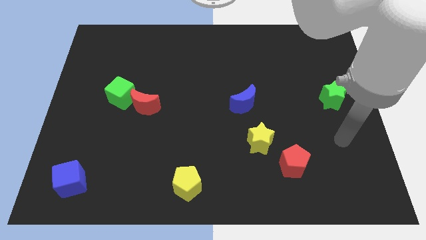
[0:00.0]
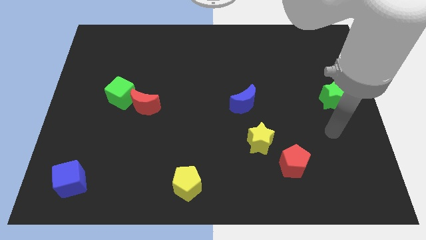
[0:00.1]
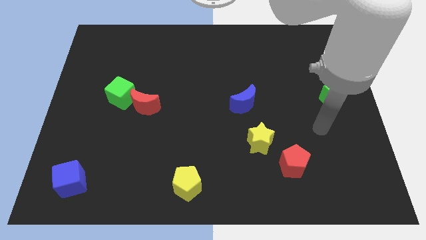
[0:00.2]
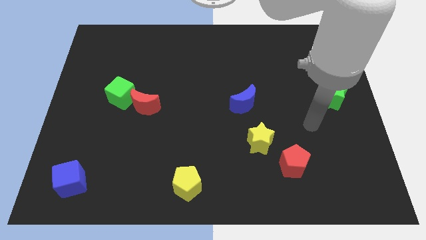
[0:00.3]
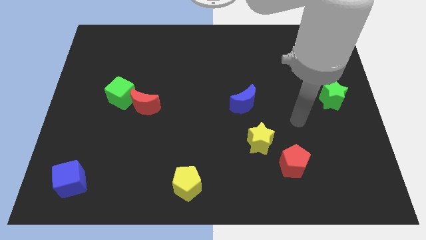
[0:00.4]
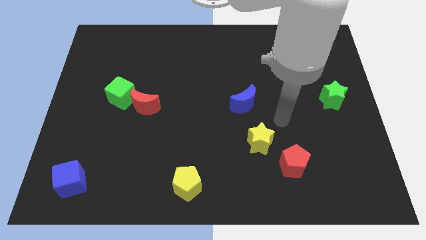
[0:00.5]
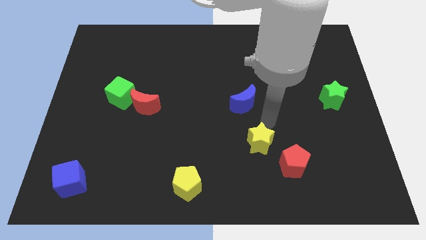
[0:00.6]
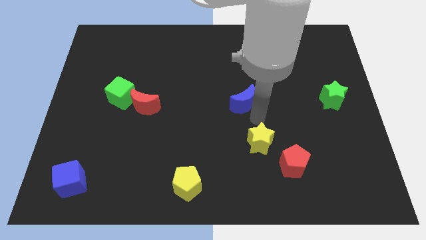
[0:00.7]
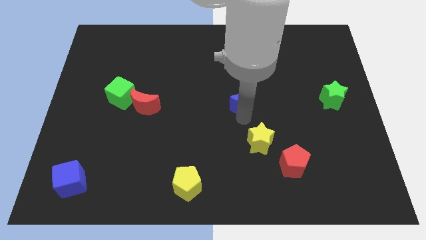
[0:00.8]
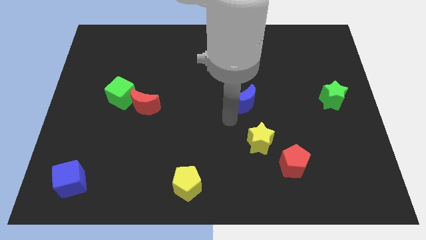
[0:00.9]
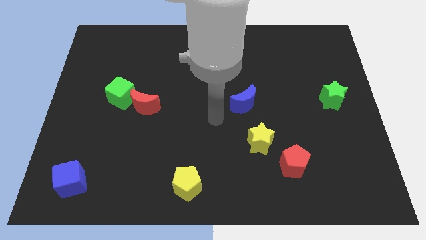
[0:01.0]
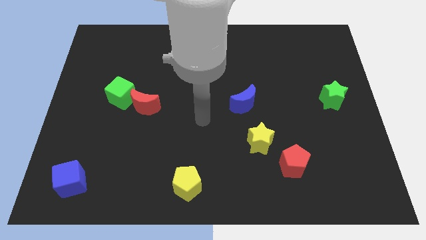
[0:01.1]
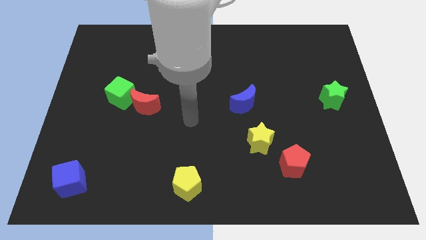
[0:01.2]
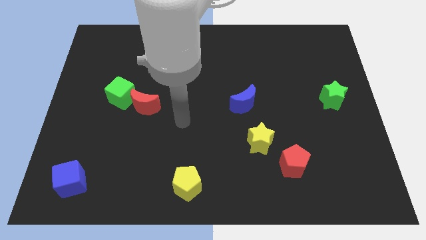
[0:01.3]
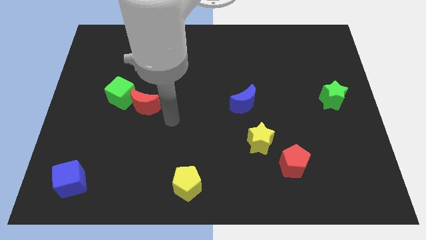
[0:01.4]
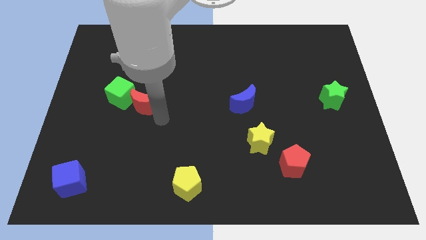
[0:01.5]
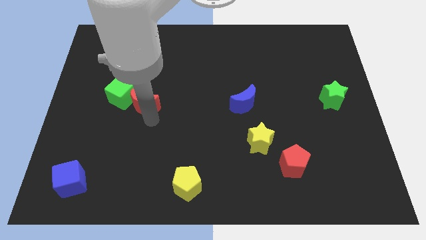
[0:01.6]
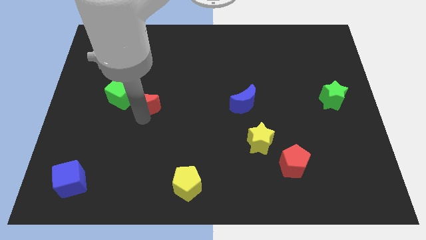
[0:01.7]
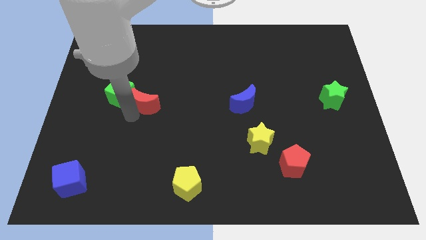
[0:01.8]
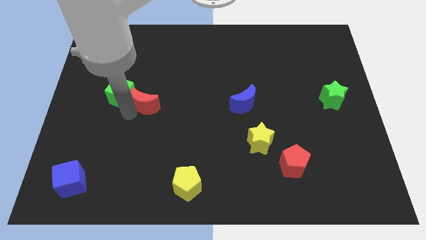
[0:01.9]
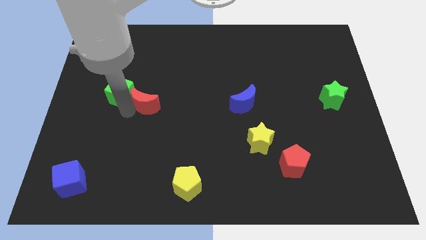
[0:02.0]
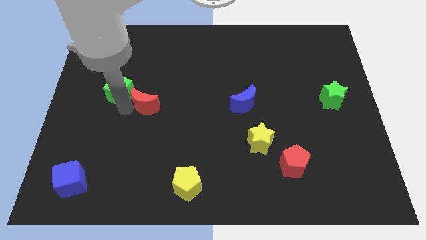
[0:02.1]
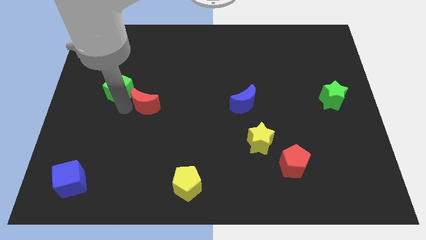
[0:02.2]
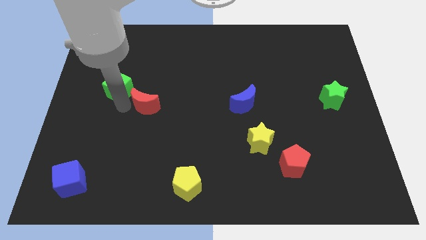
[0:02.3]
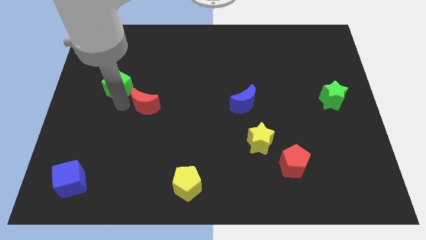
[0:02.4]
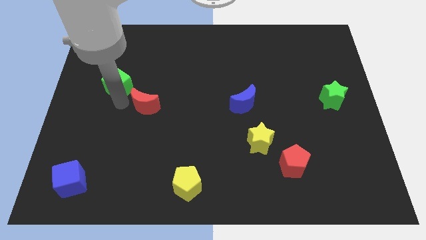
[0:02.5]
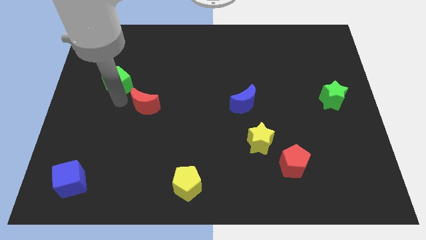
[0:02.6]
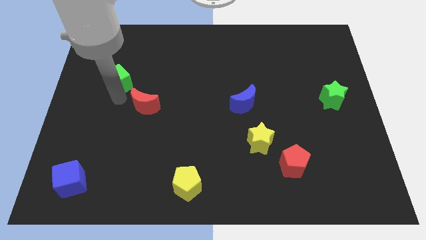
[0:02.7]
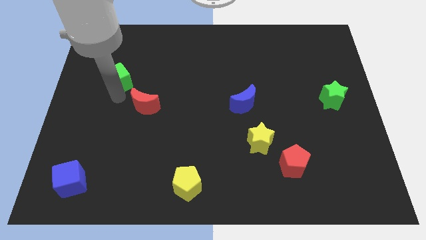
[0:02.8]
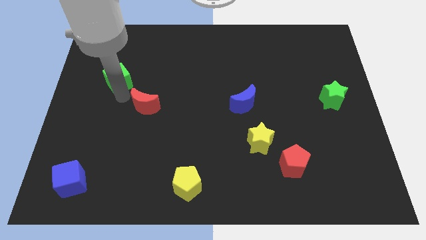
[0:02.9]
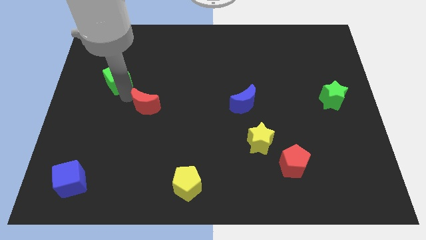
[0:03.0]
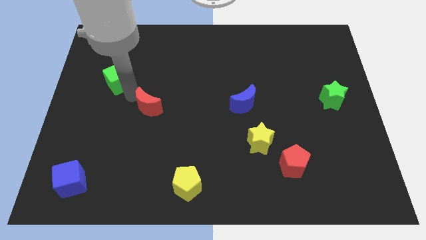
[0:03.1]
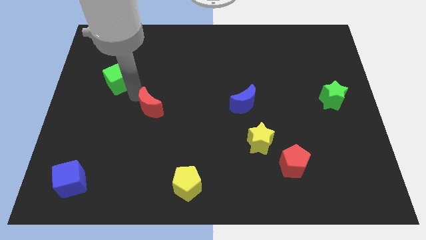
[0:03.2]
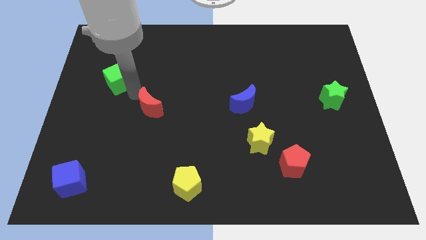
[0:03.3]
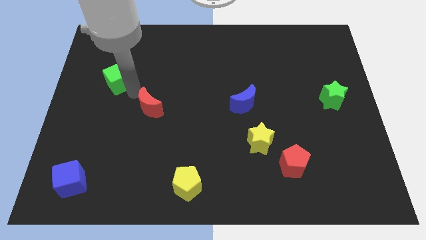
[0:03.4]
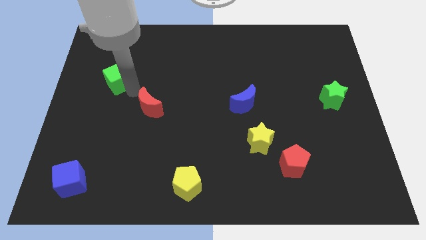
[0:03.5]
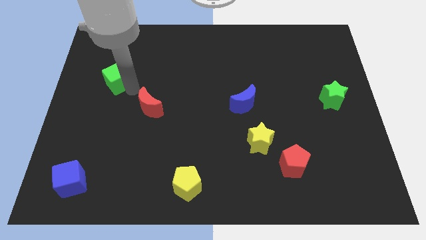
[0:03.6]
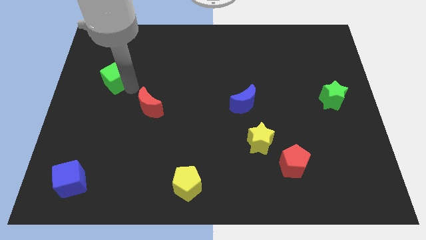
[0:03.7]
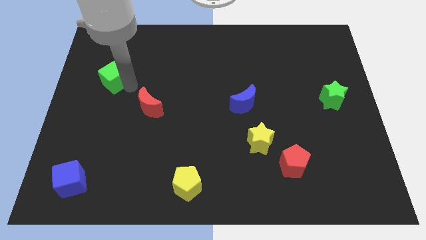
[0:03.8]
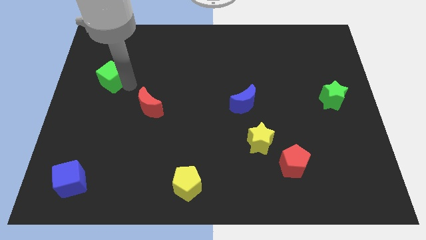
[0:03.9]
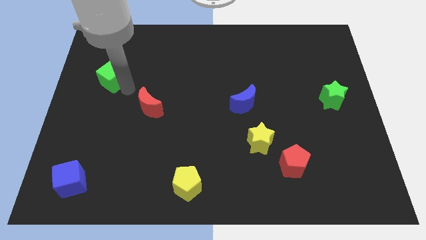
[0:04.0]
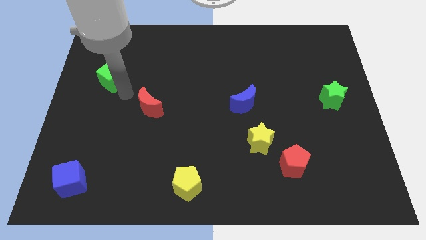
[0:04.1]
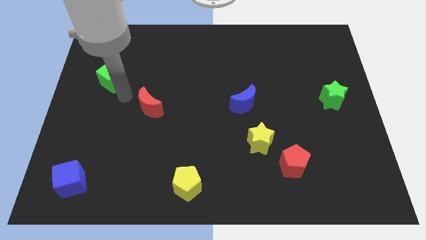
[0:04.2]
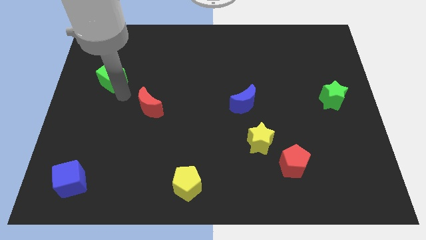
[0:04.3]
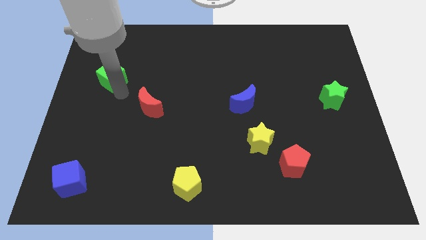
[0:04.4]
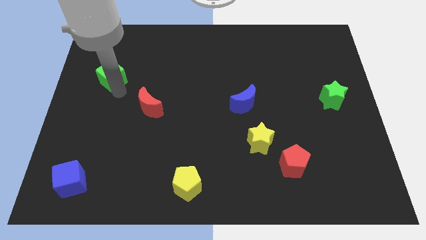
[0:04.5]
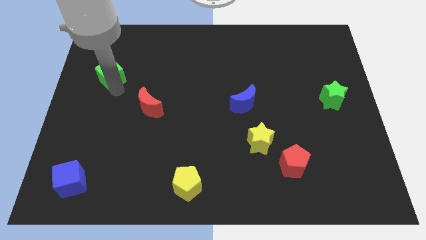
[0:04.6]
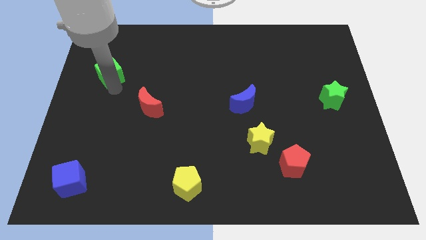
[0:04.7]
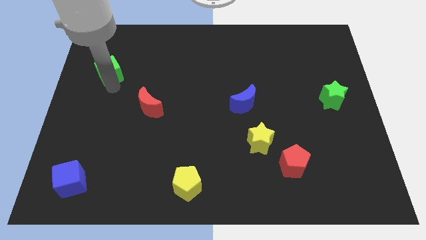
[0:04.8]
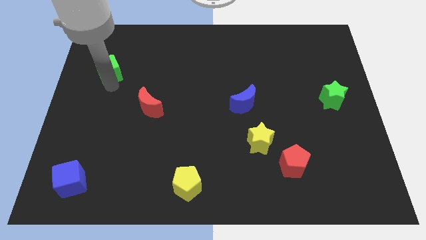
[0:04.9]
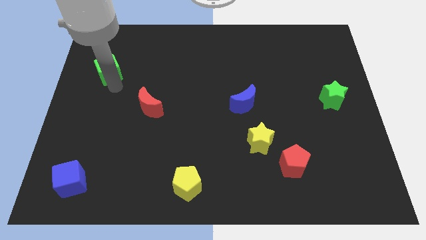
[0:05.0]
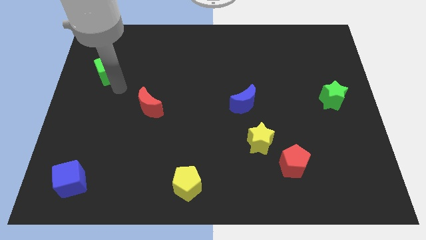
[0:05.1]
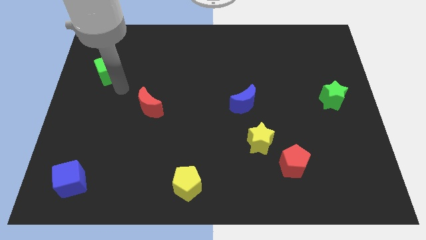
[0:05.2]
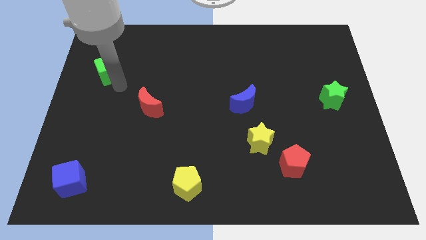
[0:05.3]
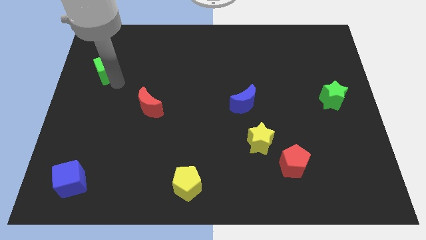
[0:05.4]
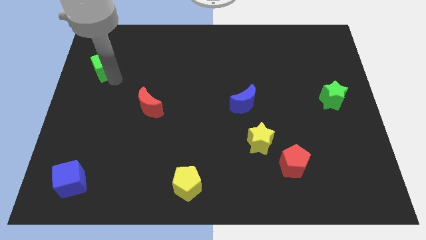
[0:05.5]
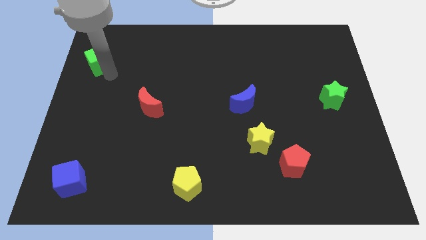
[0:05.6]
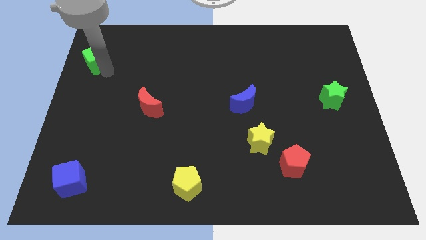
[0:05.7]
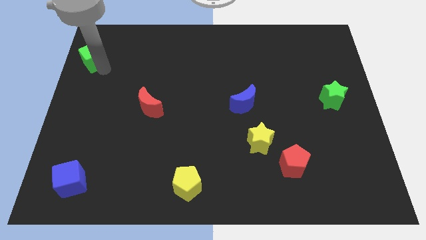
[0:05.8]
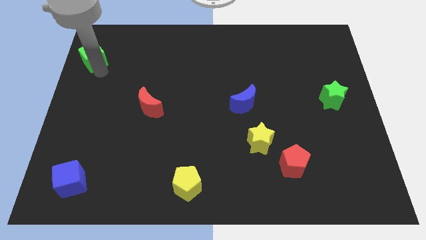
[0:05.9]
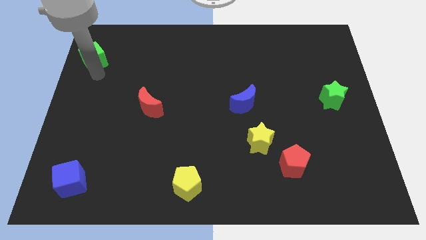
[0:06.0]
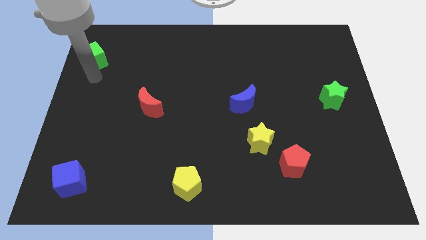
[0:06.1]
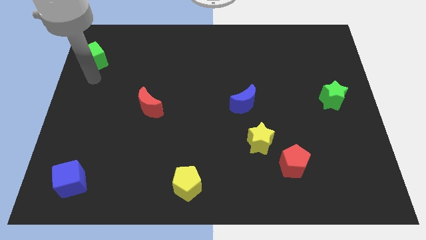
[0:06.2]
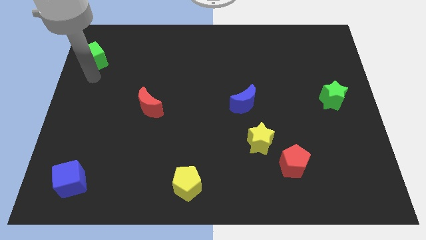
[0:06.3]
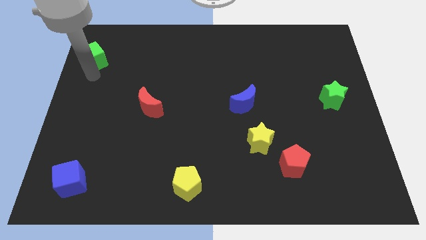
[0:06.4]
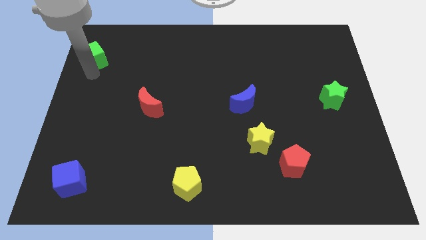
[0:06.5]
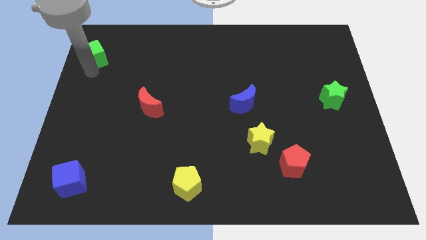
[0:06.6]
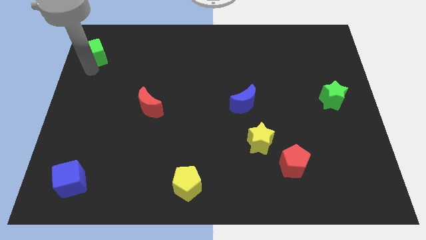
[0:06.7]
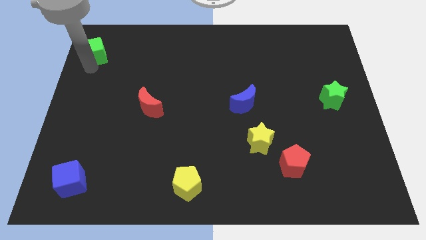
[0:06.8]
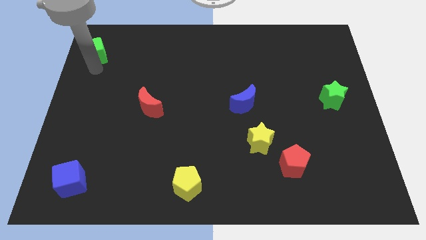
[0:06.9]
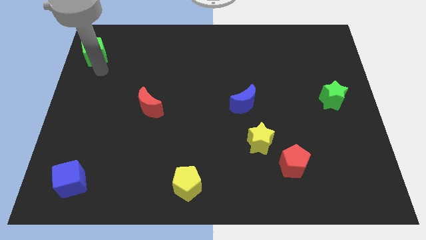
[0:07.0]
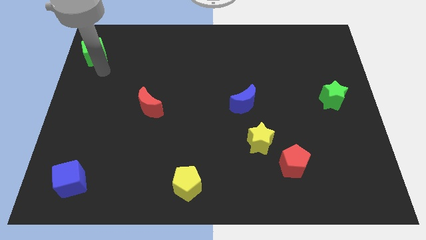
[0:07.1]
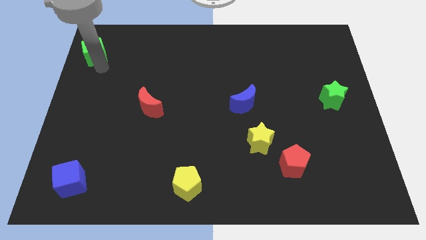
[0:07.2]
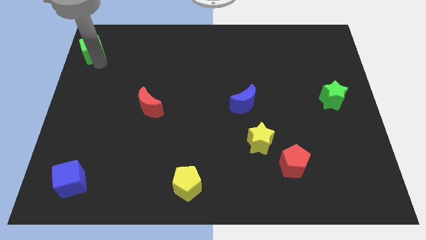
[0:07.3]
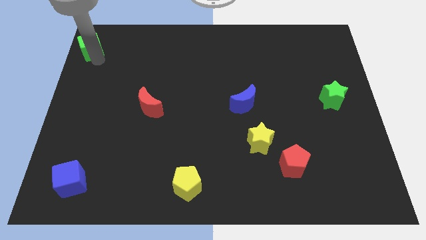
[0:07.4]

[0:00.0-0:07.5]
put the green cube to the upper left corner
